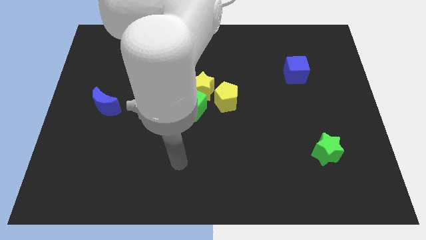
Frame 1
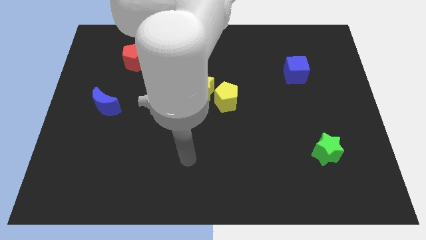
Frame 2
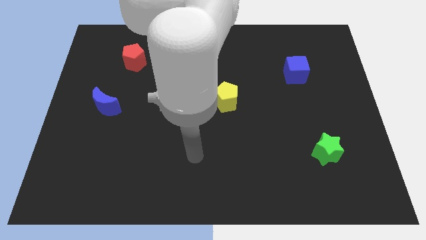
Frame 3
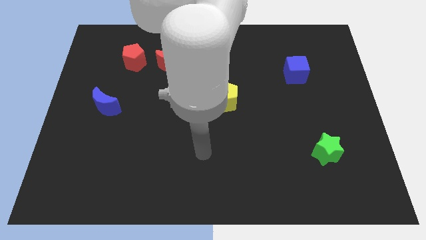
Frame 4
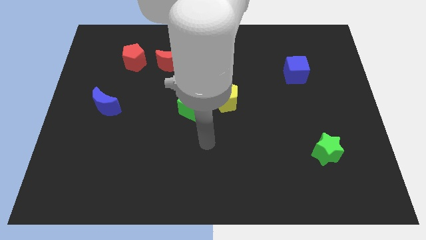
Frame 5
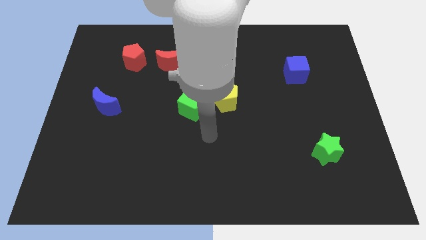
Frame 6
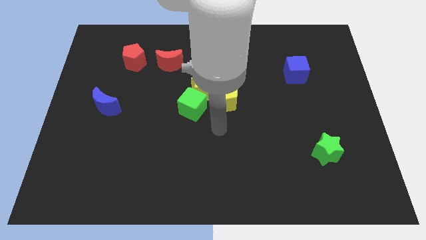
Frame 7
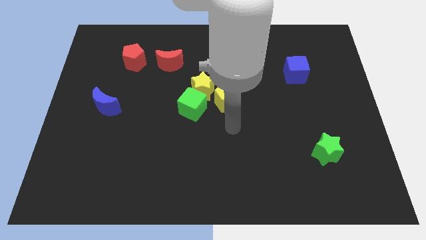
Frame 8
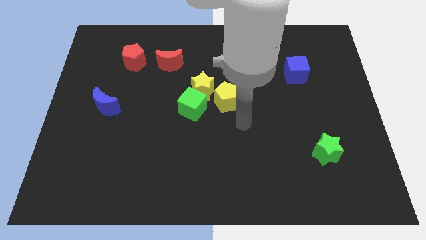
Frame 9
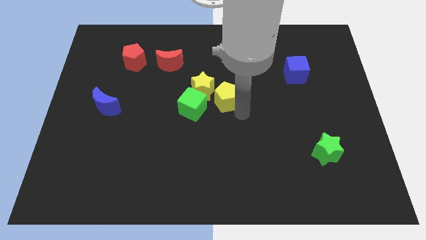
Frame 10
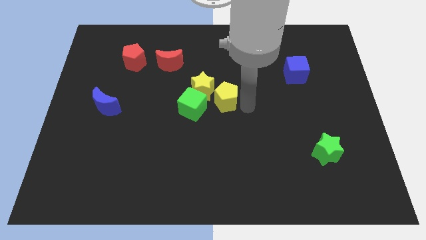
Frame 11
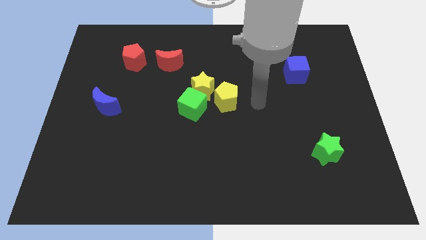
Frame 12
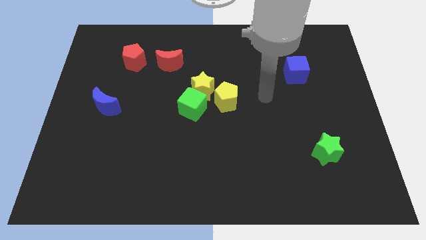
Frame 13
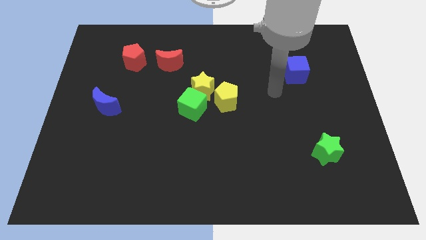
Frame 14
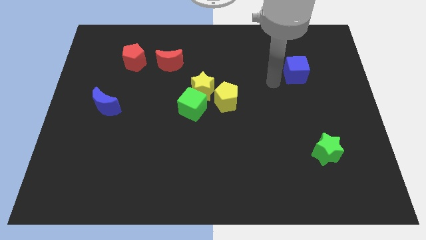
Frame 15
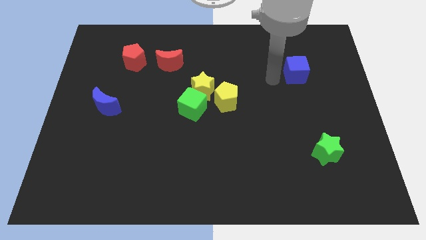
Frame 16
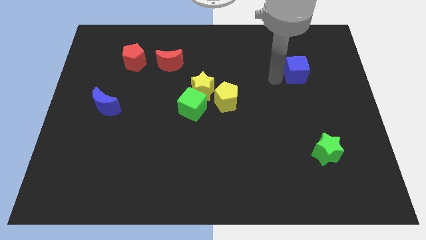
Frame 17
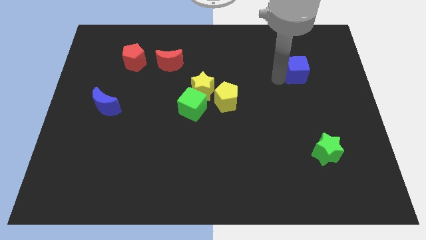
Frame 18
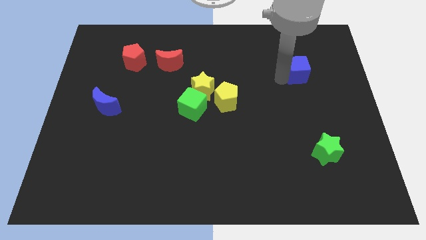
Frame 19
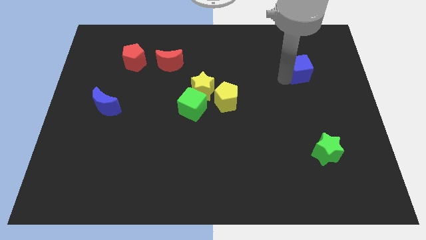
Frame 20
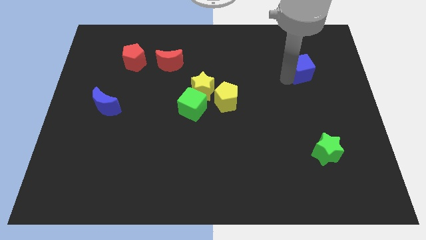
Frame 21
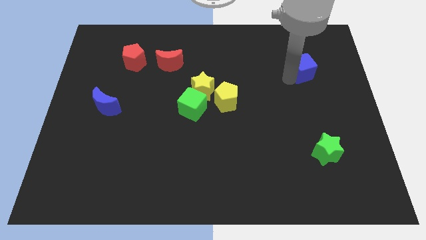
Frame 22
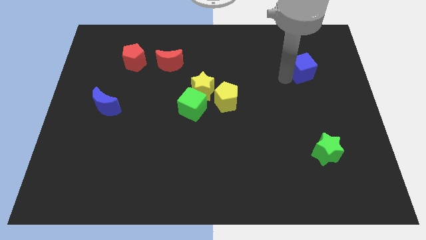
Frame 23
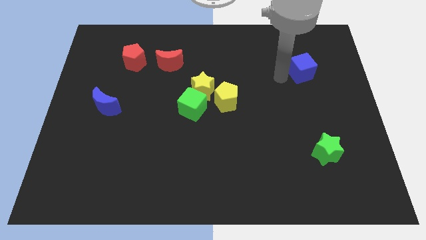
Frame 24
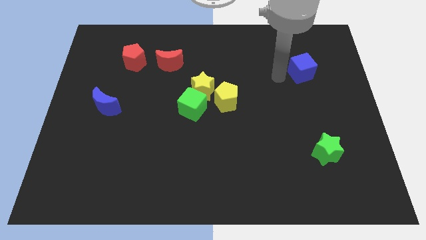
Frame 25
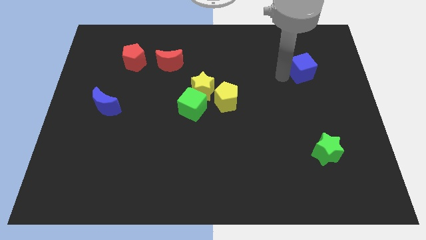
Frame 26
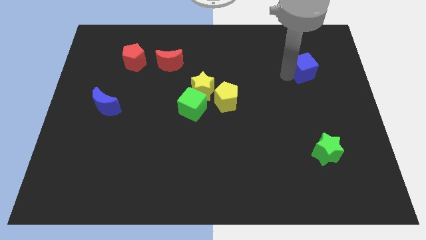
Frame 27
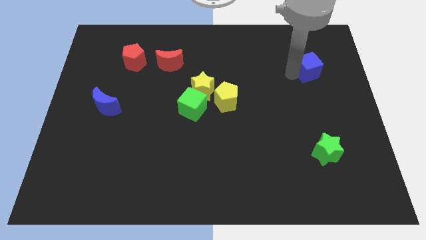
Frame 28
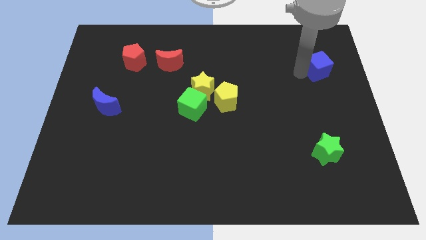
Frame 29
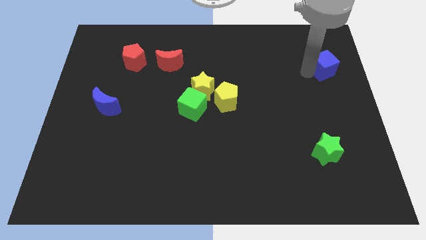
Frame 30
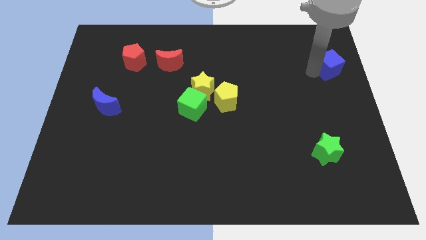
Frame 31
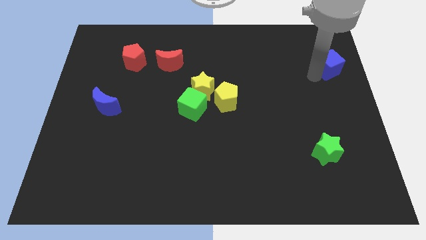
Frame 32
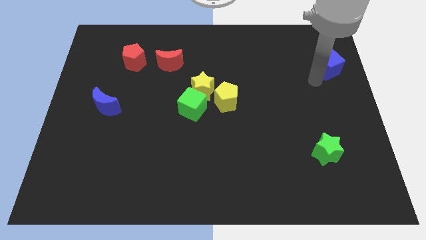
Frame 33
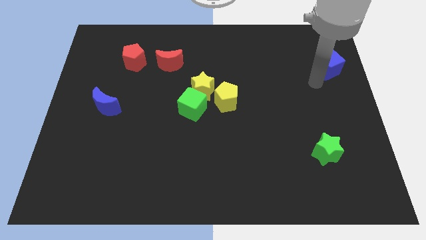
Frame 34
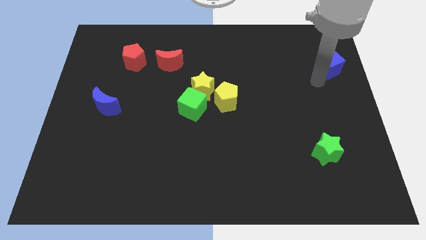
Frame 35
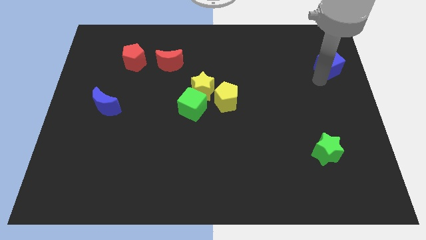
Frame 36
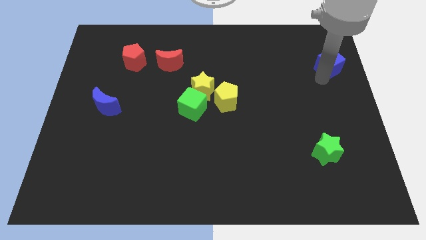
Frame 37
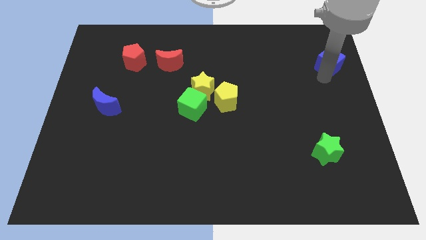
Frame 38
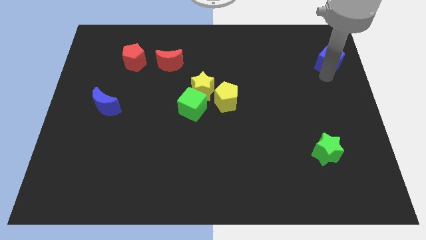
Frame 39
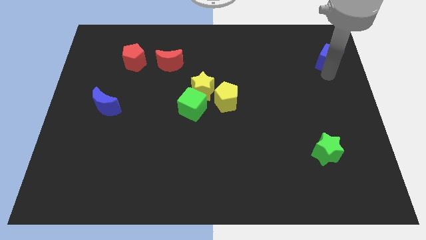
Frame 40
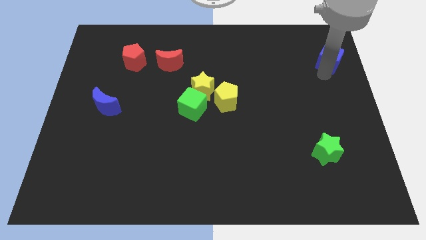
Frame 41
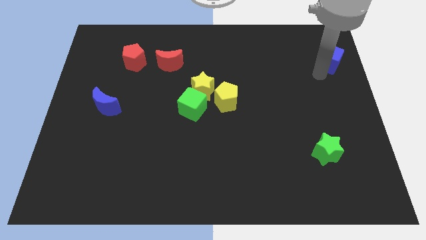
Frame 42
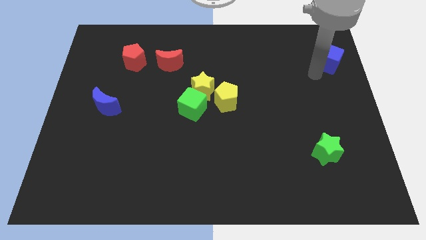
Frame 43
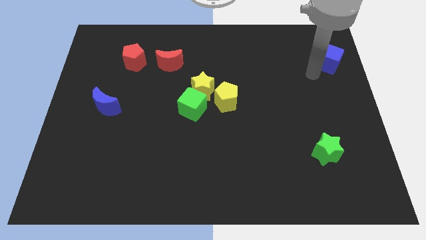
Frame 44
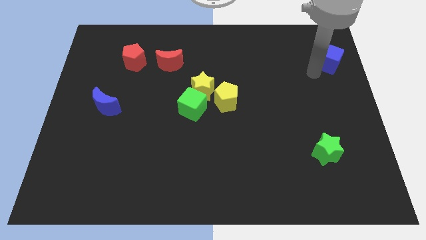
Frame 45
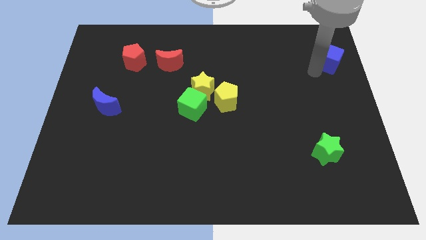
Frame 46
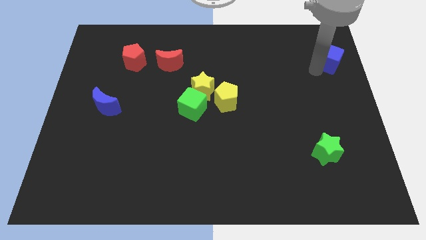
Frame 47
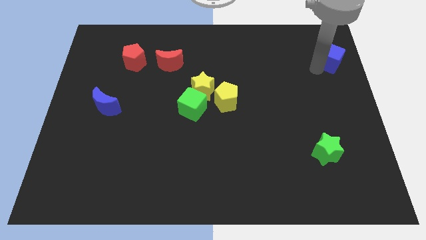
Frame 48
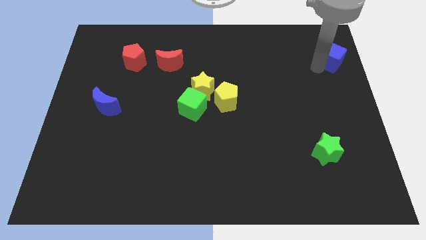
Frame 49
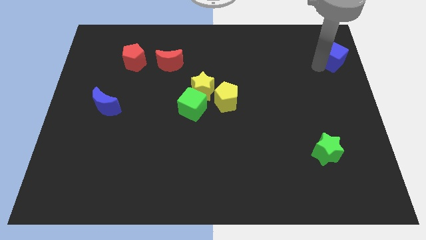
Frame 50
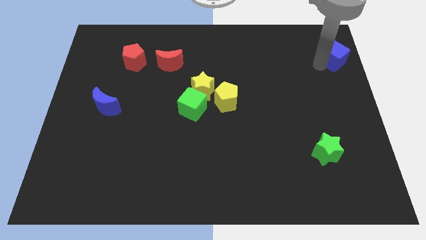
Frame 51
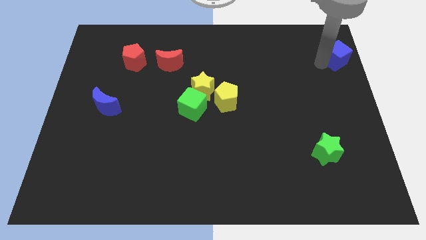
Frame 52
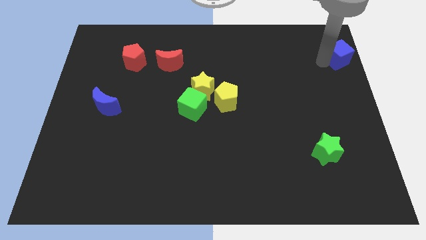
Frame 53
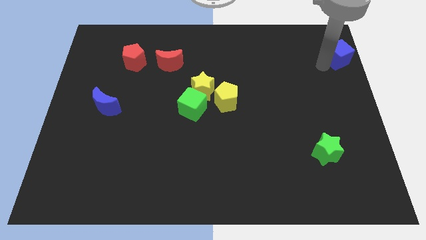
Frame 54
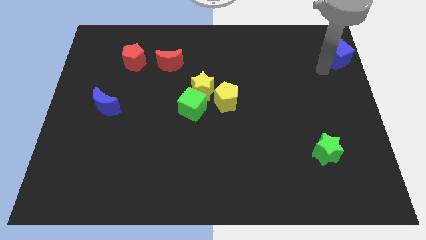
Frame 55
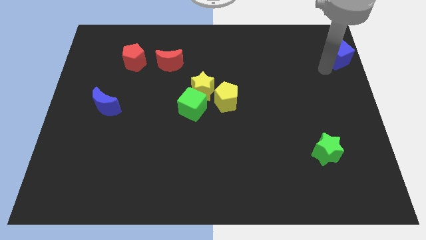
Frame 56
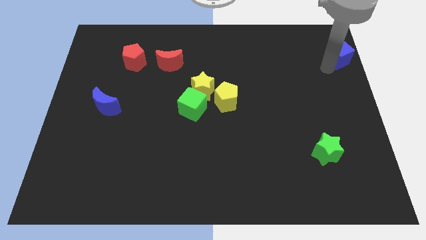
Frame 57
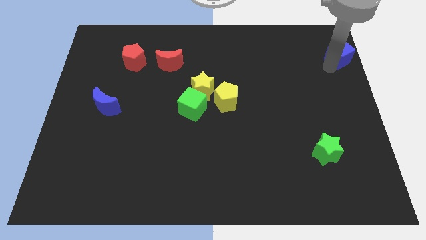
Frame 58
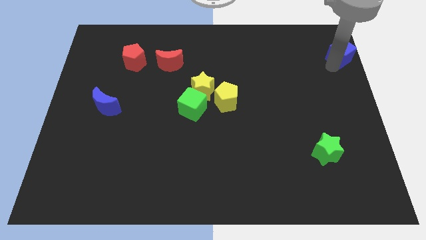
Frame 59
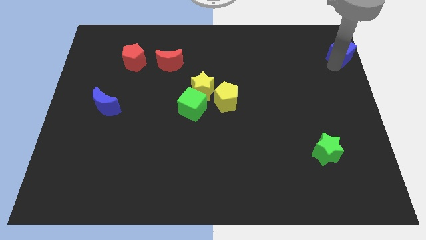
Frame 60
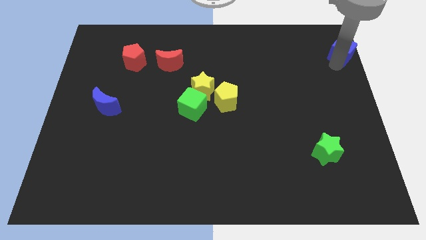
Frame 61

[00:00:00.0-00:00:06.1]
move the blue cube to the top right
